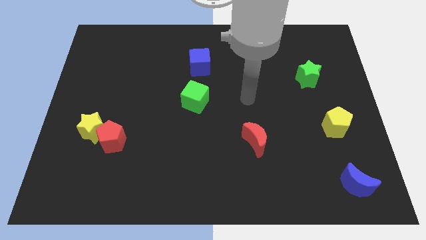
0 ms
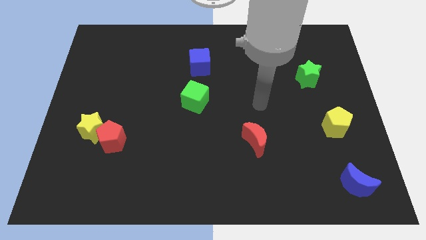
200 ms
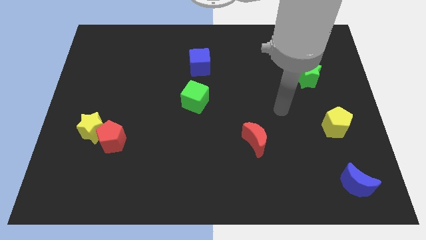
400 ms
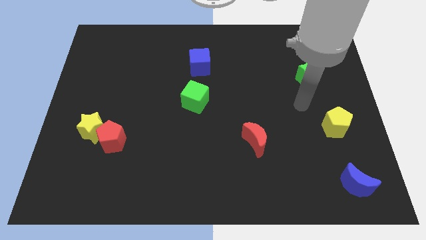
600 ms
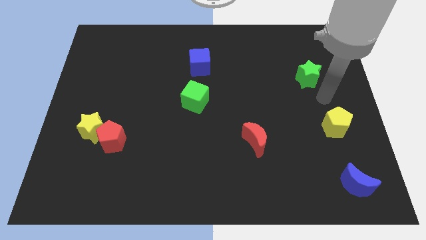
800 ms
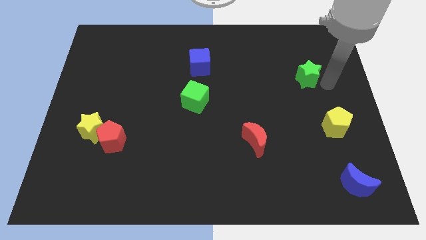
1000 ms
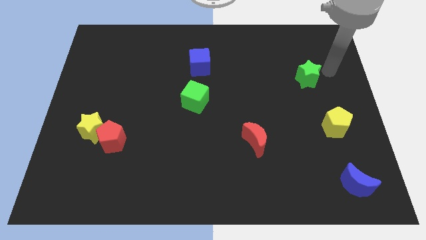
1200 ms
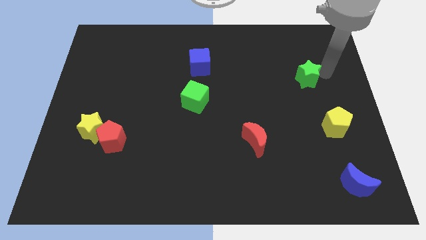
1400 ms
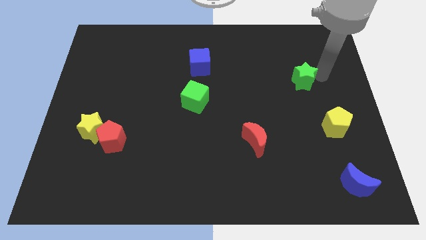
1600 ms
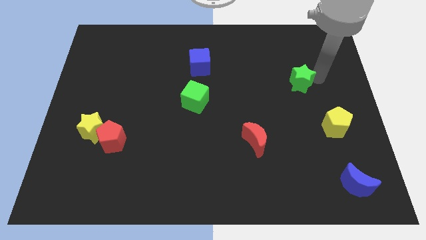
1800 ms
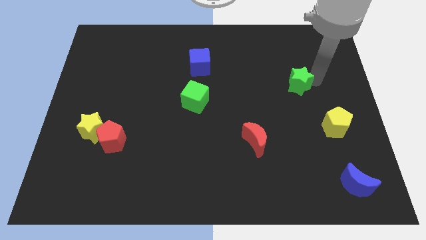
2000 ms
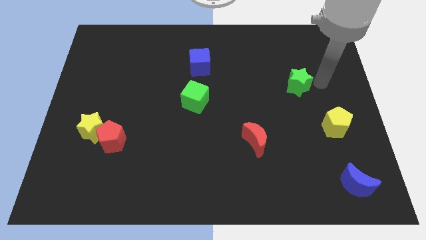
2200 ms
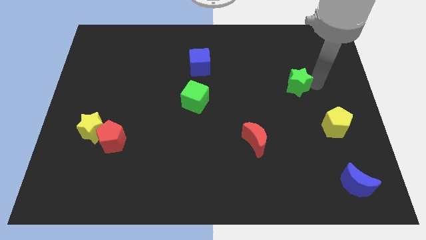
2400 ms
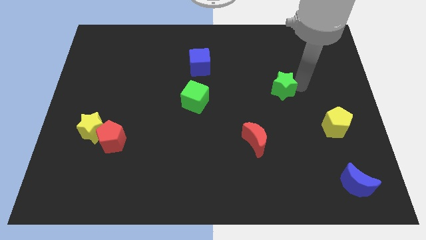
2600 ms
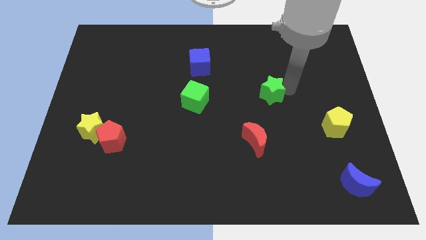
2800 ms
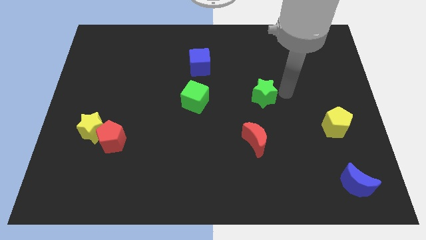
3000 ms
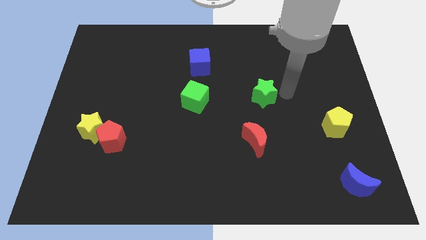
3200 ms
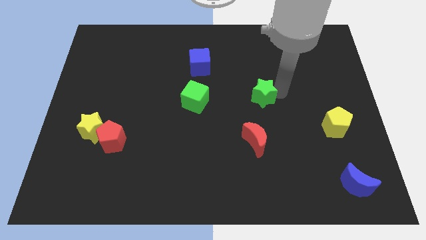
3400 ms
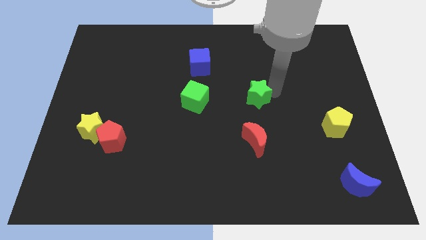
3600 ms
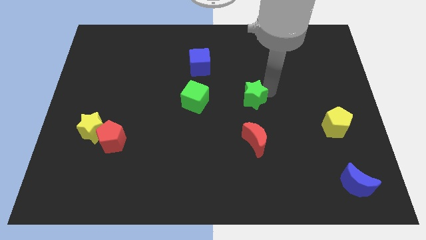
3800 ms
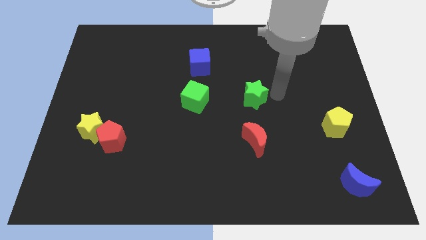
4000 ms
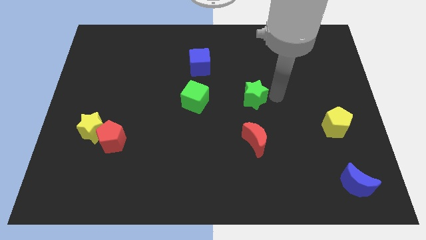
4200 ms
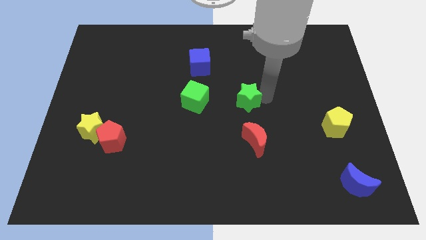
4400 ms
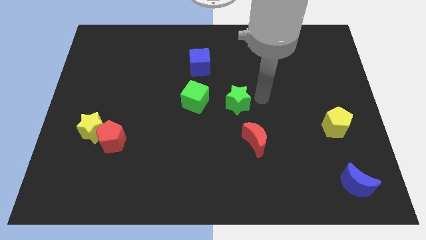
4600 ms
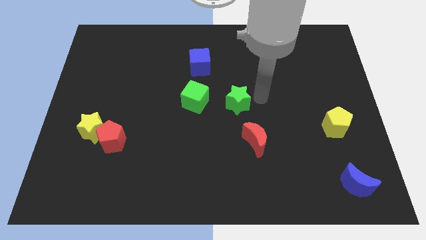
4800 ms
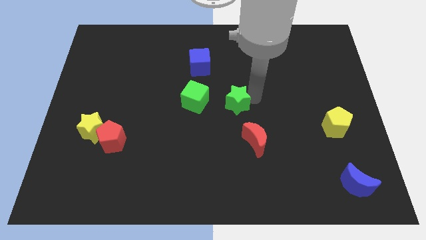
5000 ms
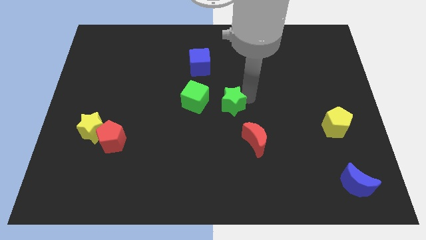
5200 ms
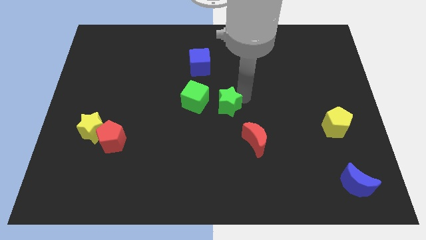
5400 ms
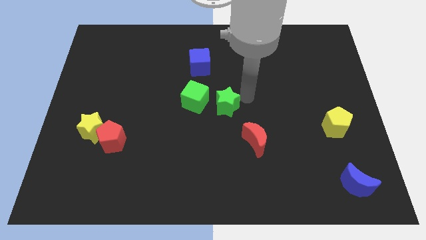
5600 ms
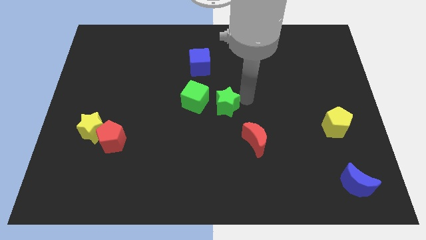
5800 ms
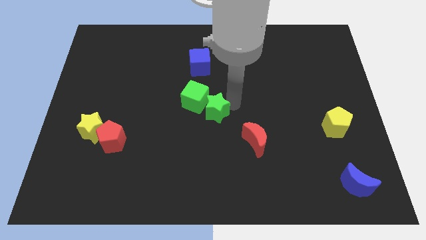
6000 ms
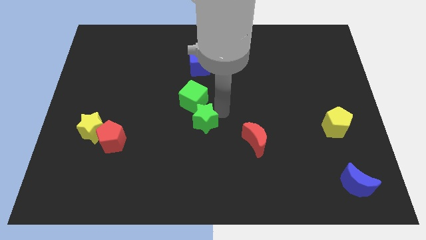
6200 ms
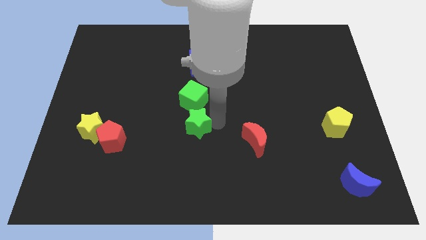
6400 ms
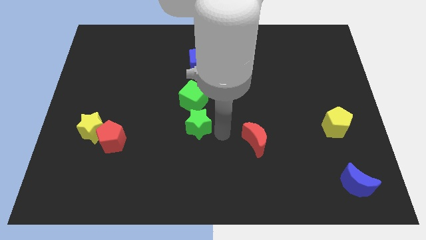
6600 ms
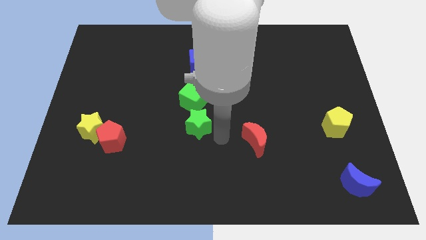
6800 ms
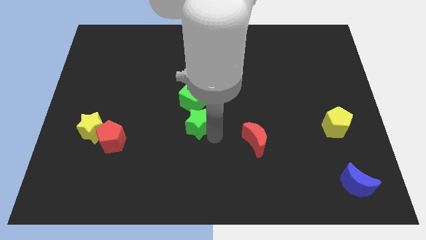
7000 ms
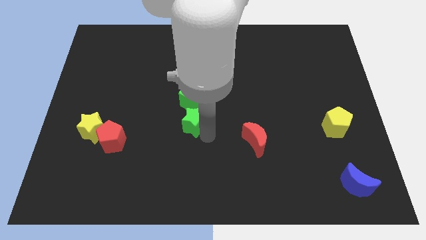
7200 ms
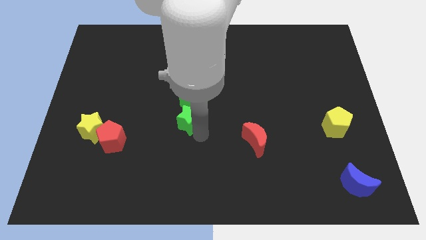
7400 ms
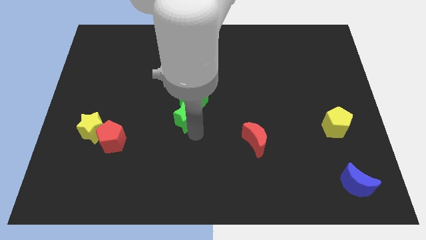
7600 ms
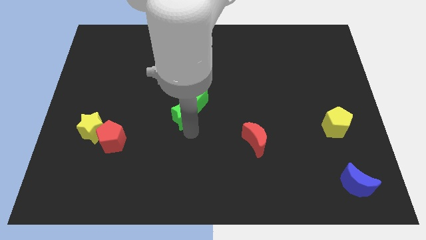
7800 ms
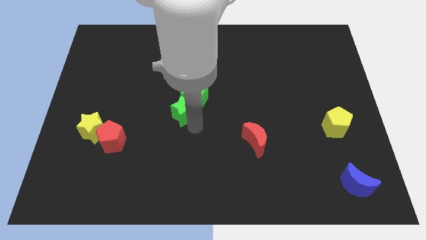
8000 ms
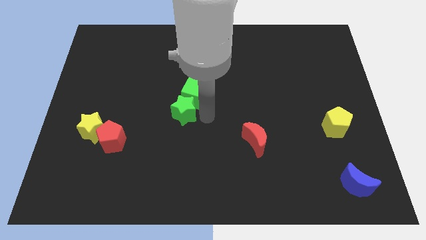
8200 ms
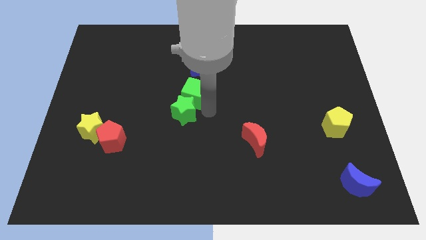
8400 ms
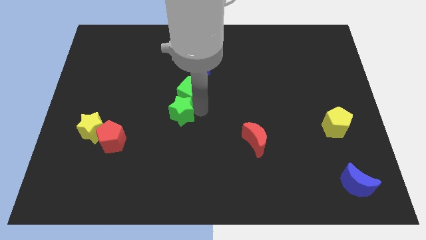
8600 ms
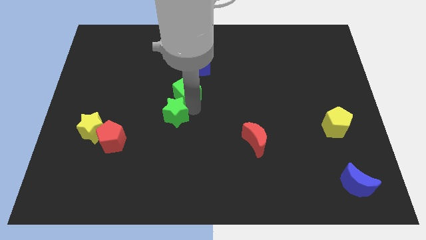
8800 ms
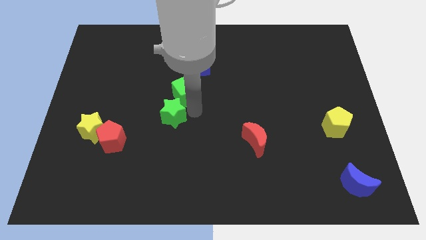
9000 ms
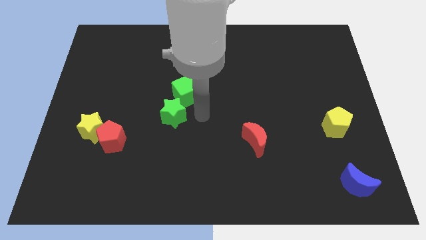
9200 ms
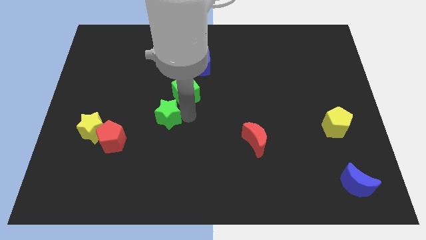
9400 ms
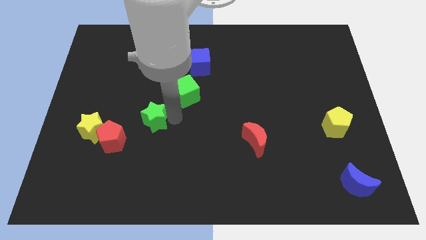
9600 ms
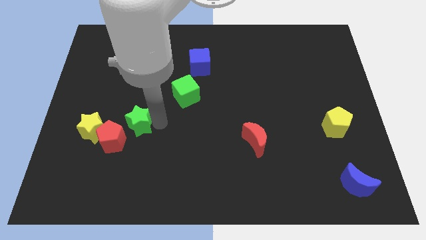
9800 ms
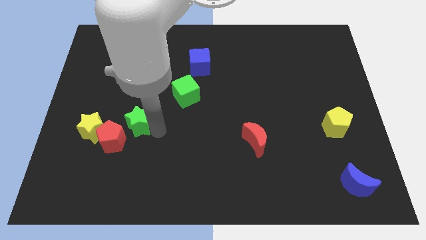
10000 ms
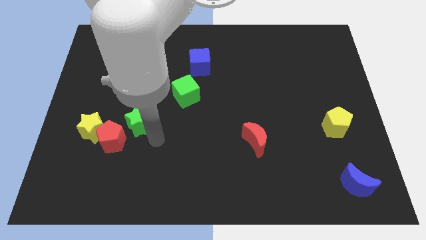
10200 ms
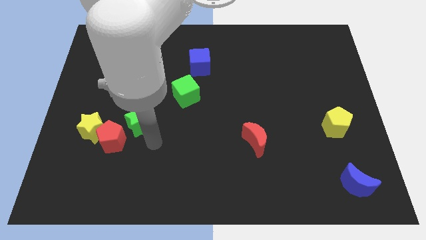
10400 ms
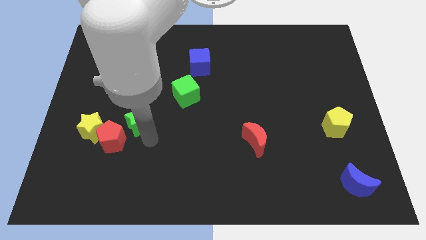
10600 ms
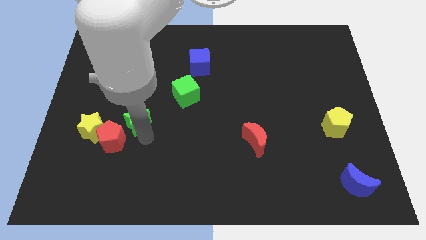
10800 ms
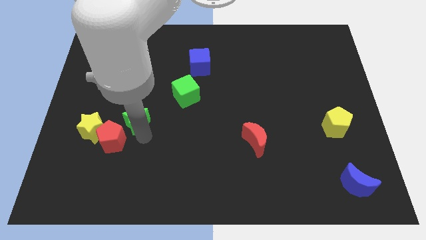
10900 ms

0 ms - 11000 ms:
move the green star above the red pentagon

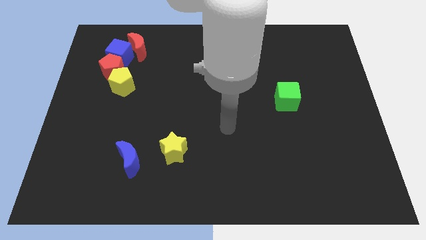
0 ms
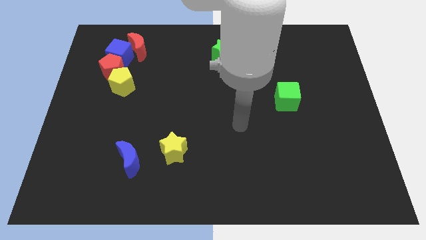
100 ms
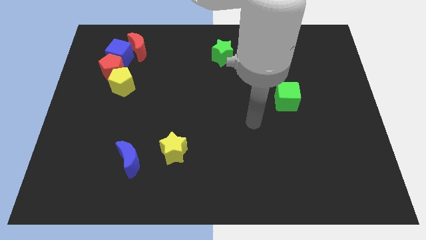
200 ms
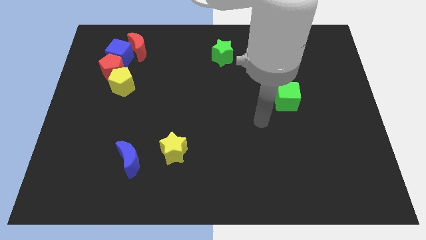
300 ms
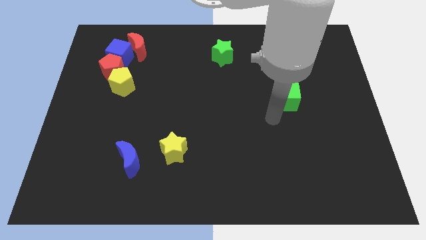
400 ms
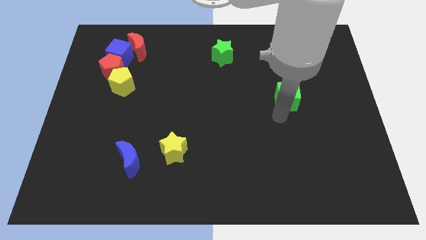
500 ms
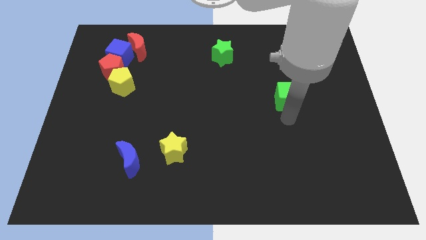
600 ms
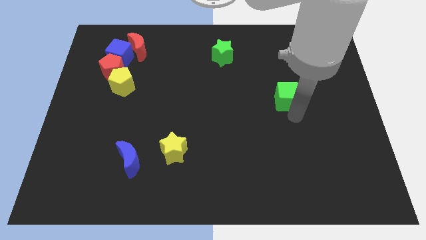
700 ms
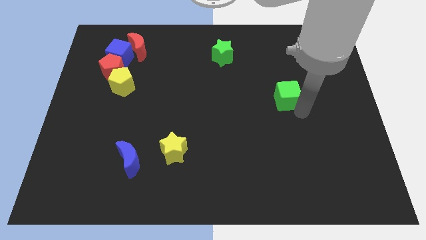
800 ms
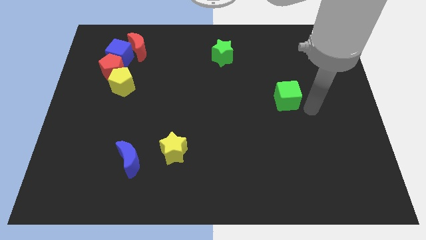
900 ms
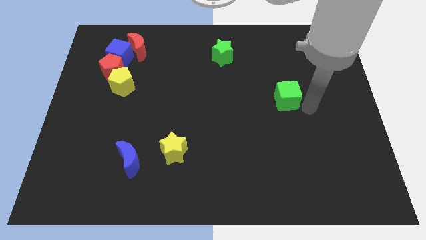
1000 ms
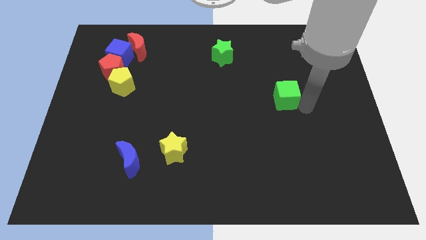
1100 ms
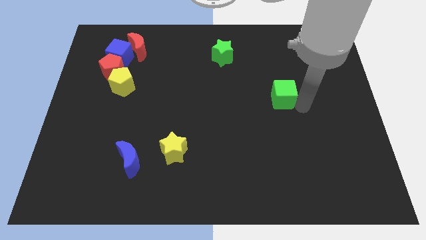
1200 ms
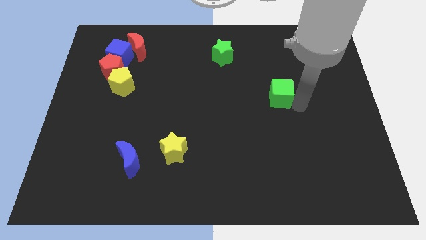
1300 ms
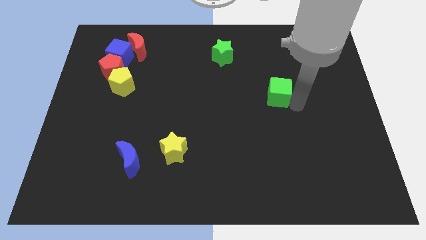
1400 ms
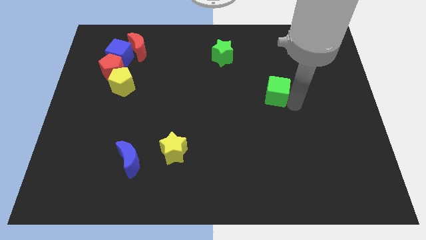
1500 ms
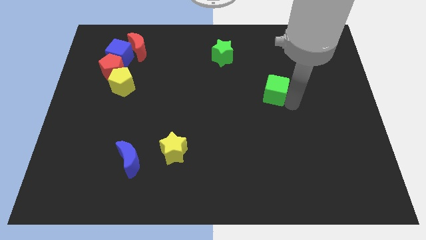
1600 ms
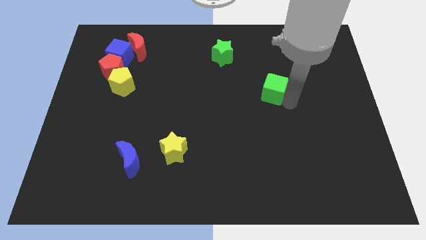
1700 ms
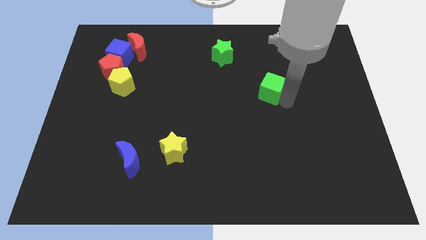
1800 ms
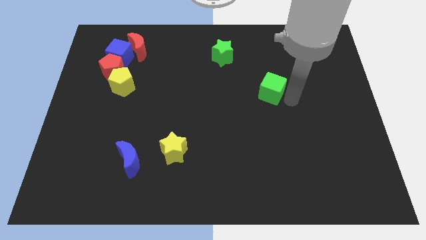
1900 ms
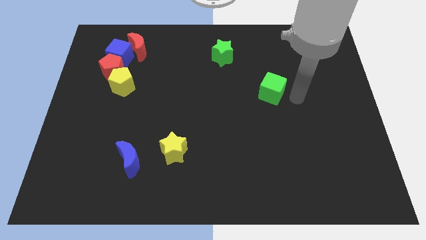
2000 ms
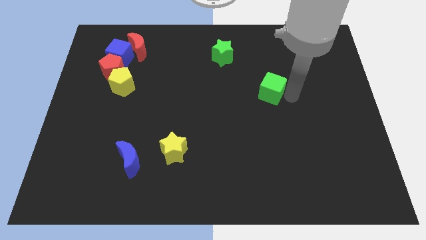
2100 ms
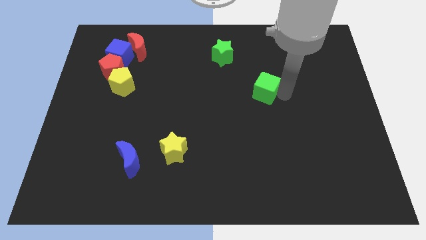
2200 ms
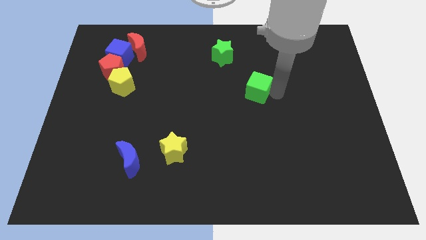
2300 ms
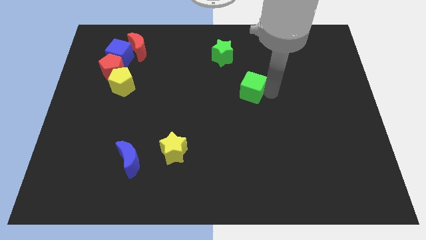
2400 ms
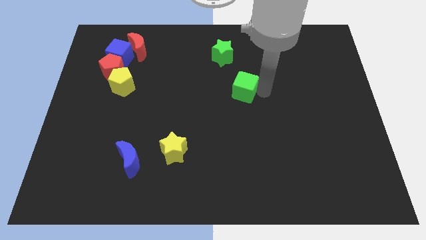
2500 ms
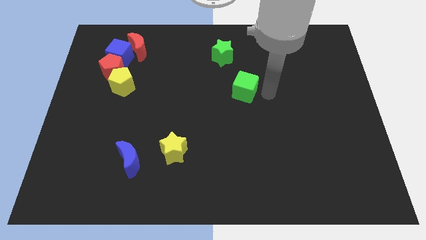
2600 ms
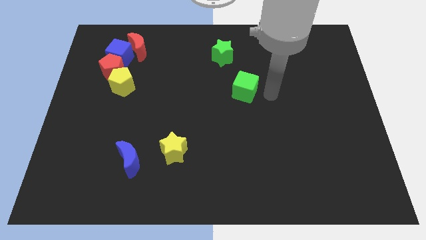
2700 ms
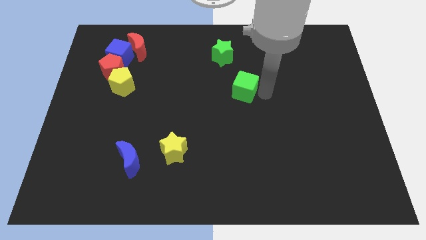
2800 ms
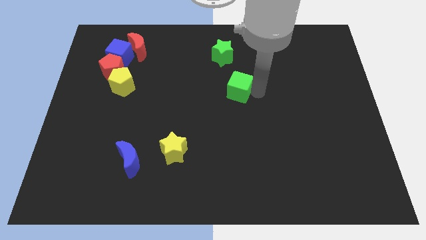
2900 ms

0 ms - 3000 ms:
put the green cube below the green star
